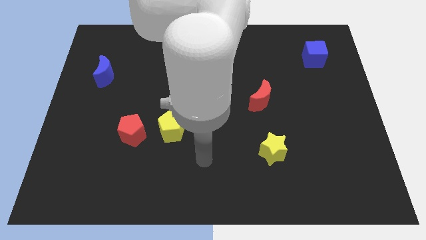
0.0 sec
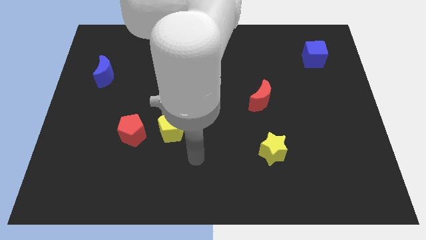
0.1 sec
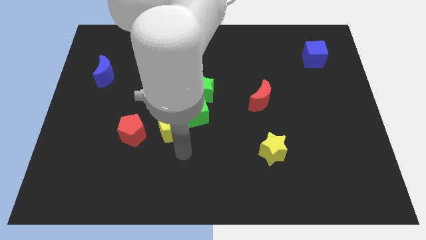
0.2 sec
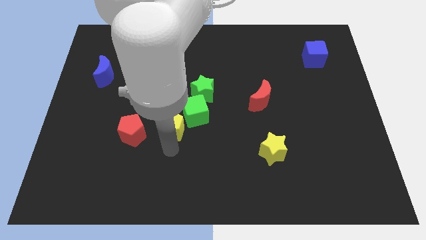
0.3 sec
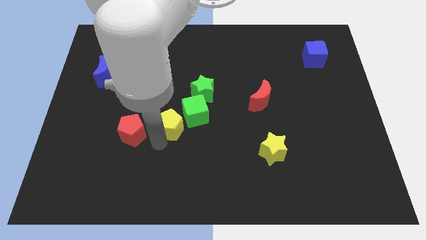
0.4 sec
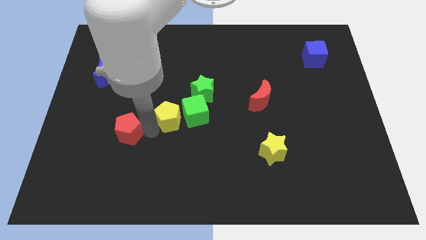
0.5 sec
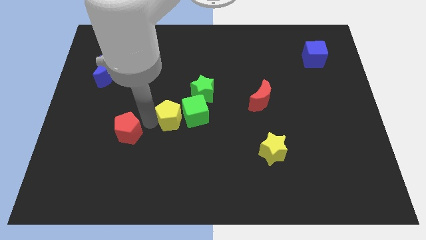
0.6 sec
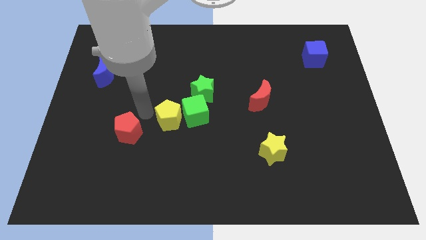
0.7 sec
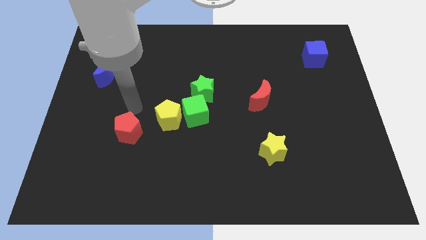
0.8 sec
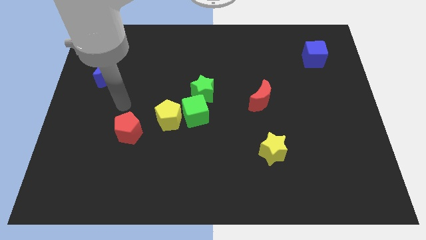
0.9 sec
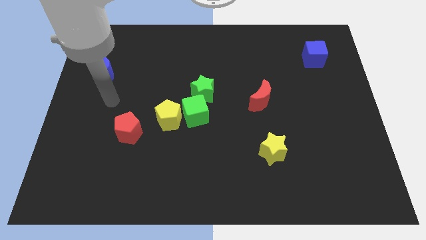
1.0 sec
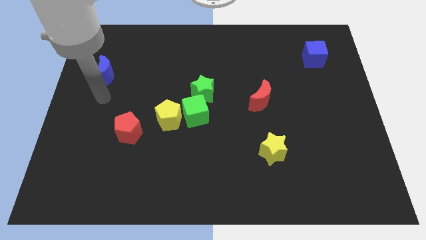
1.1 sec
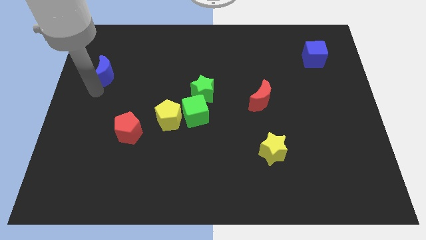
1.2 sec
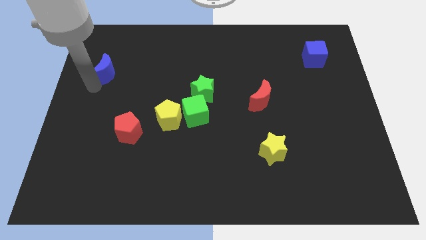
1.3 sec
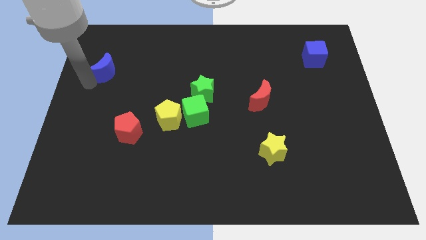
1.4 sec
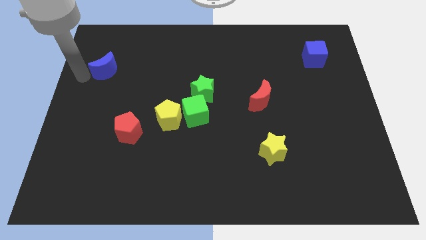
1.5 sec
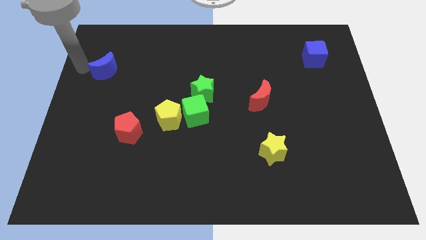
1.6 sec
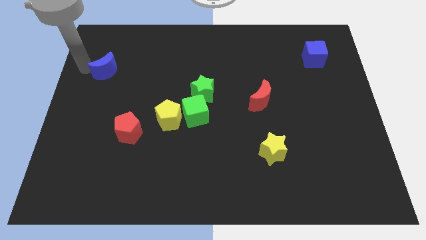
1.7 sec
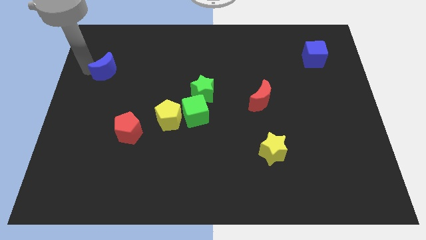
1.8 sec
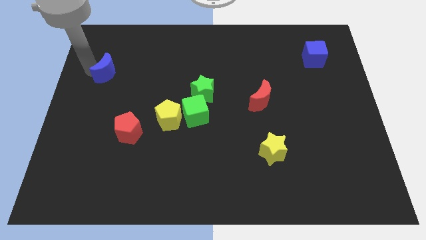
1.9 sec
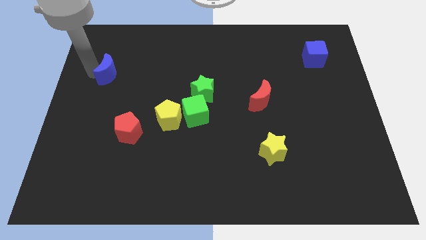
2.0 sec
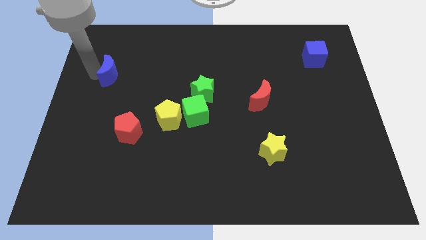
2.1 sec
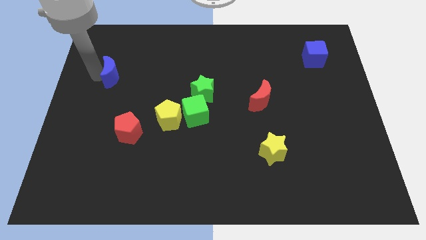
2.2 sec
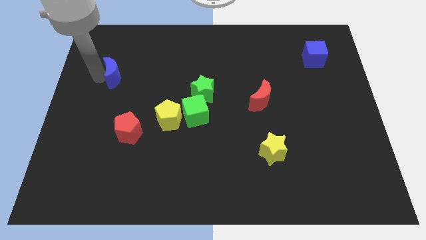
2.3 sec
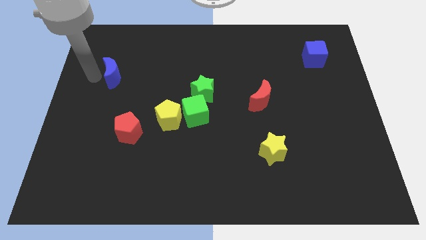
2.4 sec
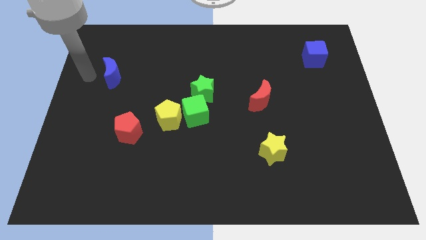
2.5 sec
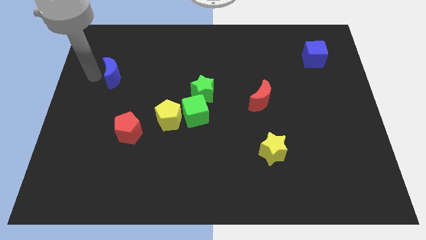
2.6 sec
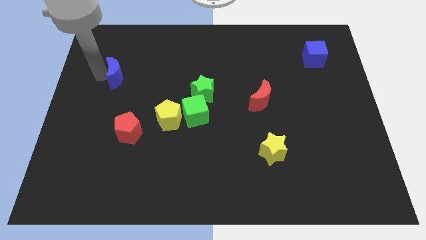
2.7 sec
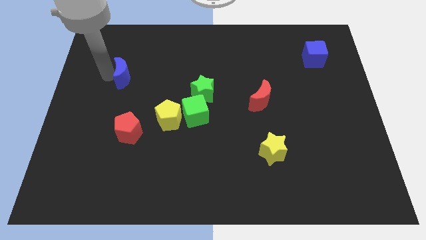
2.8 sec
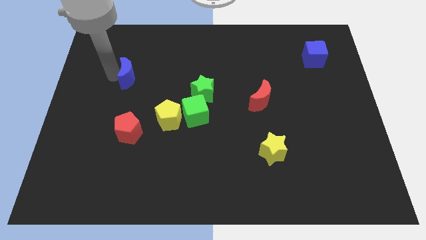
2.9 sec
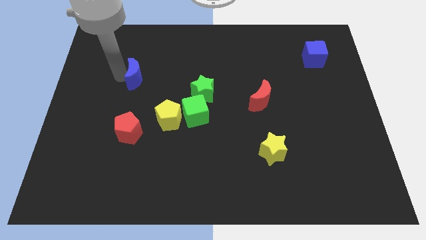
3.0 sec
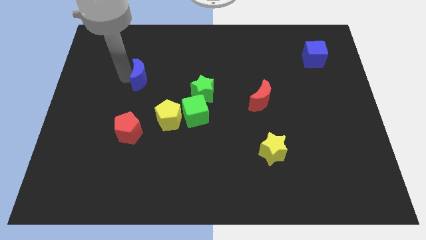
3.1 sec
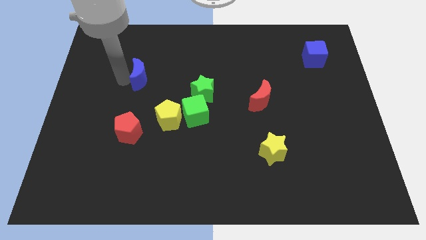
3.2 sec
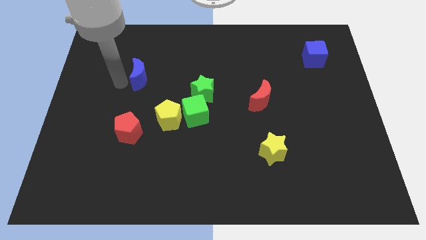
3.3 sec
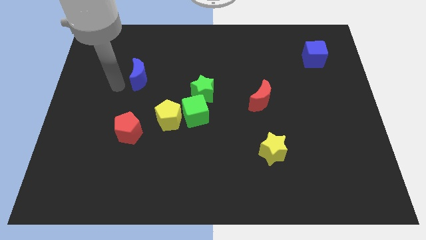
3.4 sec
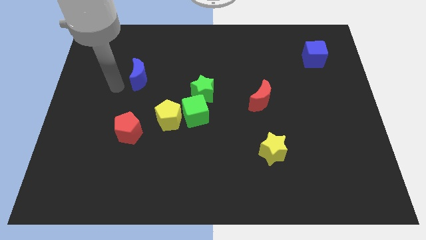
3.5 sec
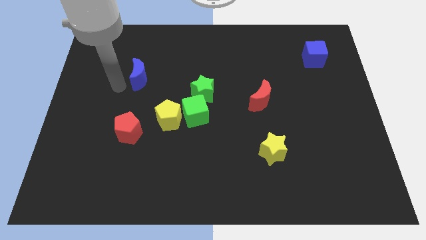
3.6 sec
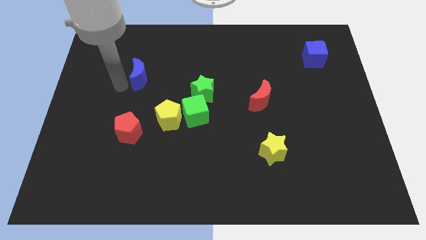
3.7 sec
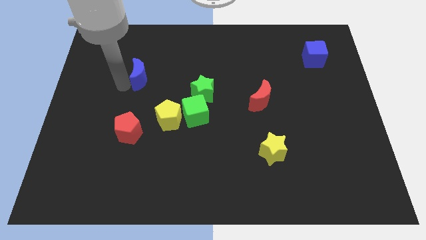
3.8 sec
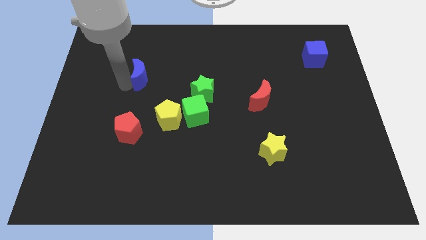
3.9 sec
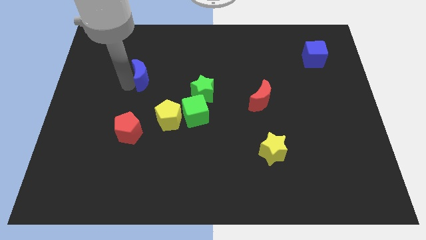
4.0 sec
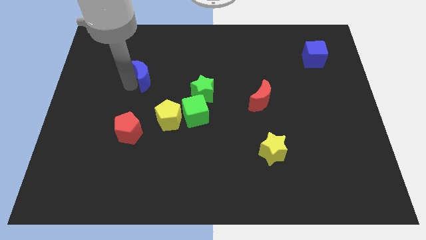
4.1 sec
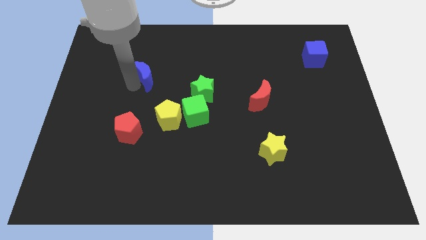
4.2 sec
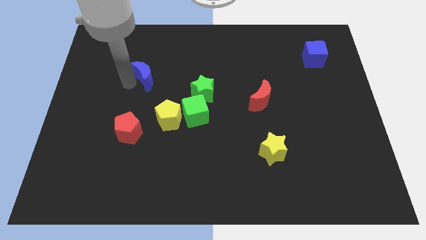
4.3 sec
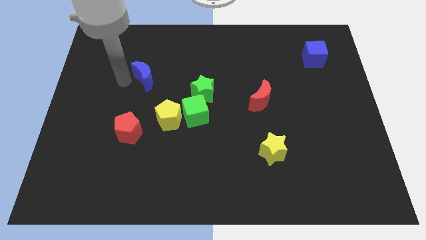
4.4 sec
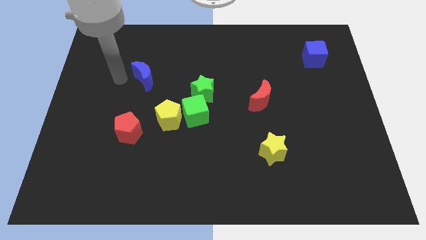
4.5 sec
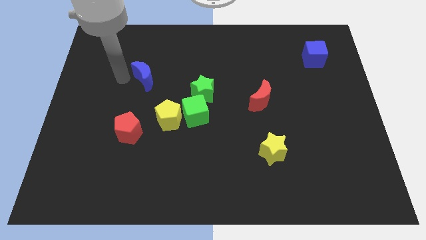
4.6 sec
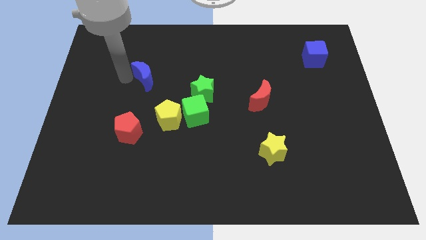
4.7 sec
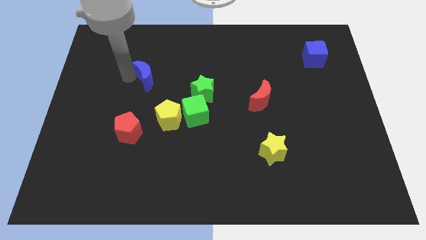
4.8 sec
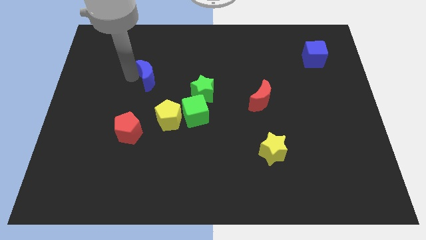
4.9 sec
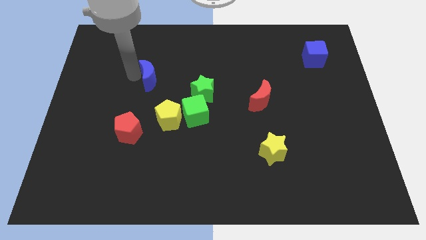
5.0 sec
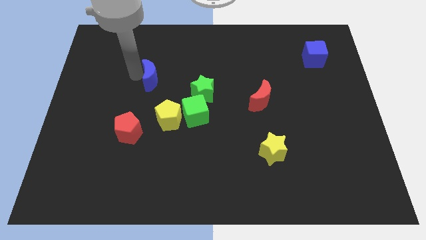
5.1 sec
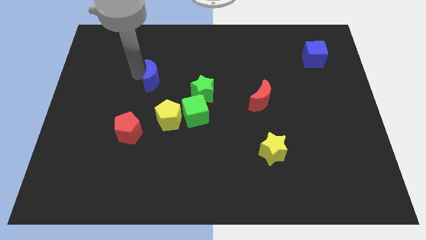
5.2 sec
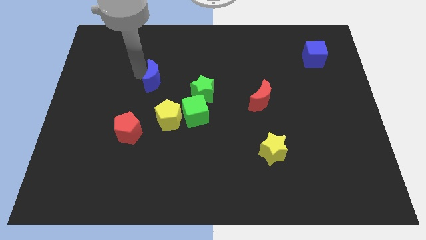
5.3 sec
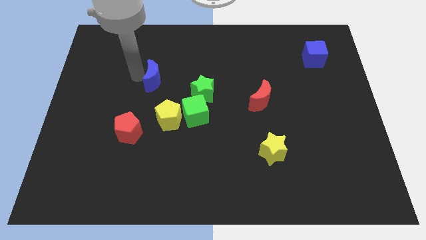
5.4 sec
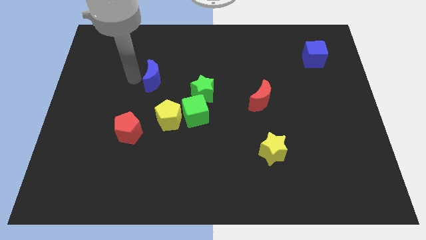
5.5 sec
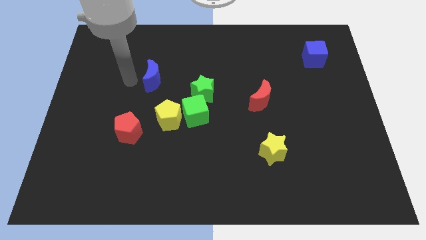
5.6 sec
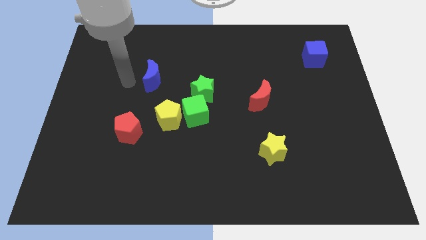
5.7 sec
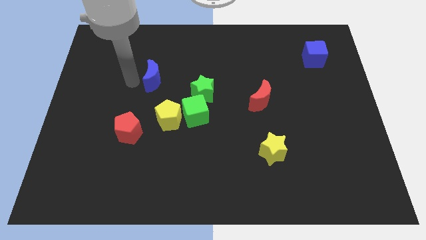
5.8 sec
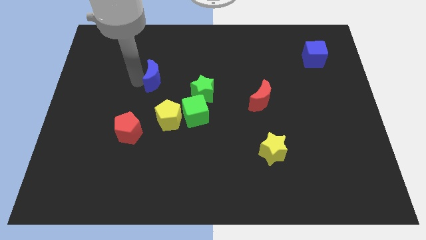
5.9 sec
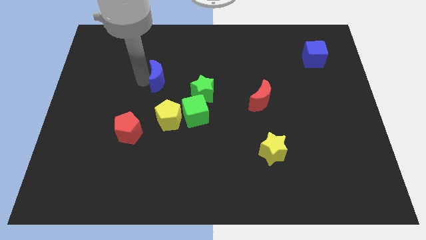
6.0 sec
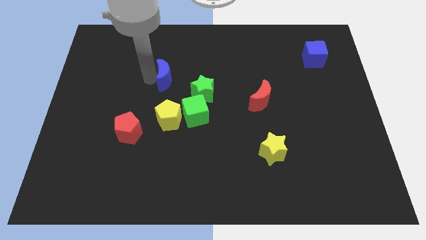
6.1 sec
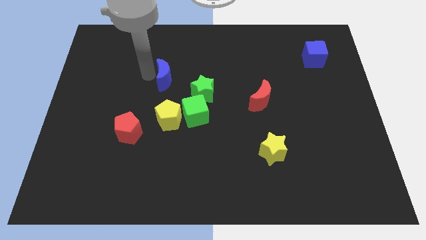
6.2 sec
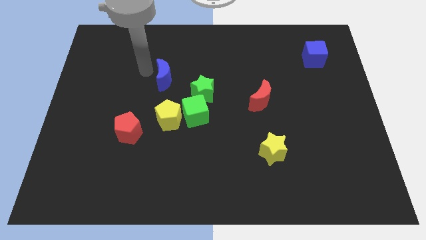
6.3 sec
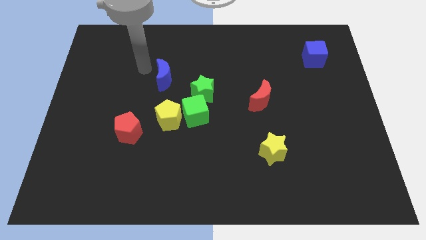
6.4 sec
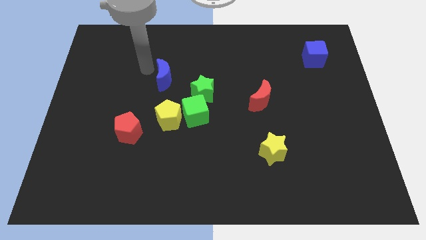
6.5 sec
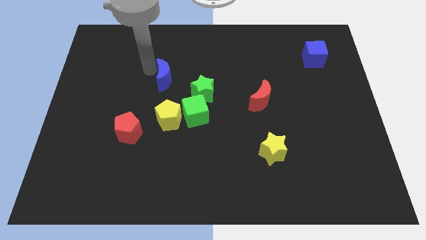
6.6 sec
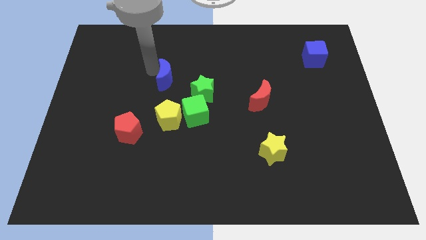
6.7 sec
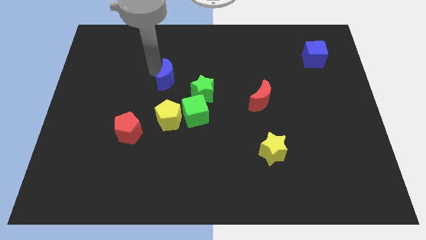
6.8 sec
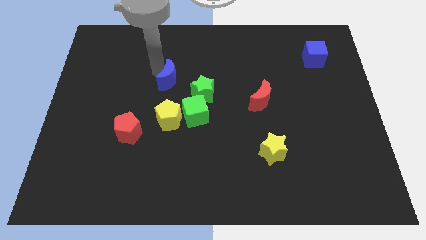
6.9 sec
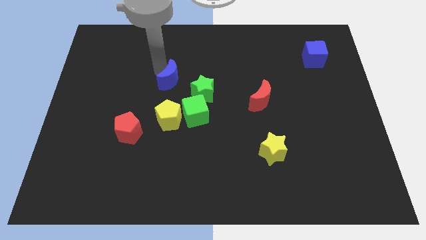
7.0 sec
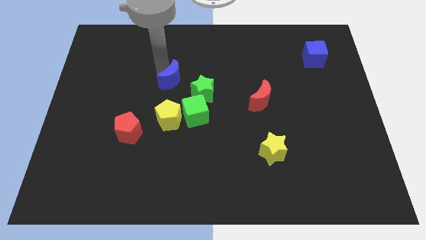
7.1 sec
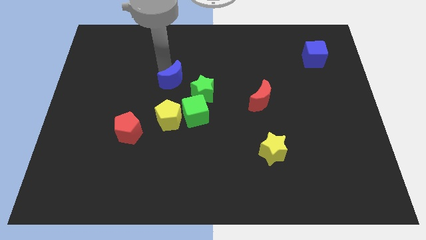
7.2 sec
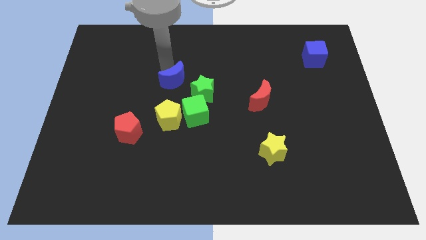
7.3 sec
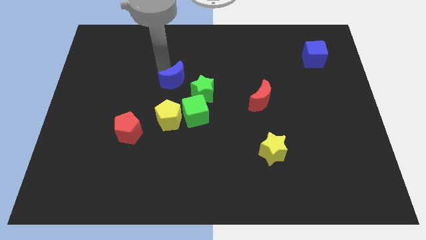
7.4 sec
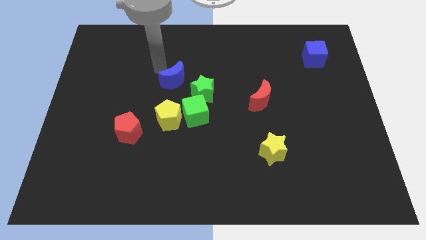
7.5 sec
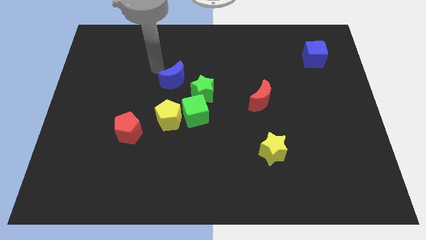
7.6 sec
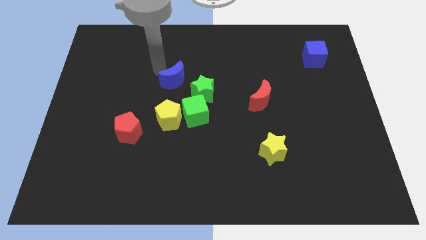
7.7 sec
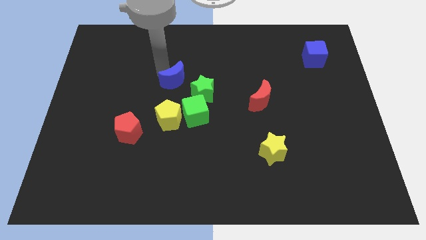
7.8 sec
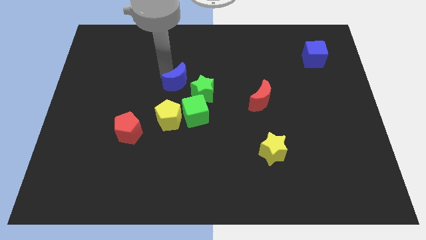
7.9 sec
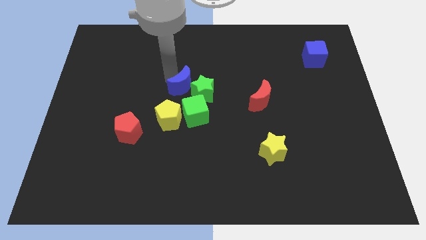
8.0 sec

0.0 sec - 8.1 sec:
slide the blue moon to the green star
